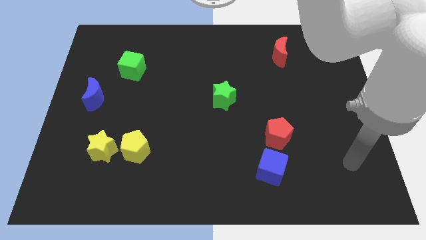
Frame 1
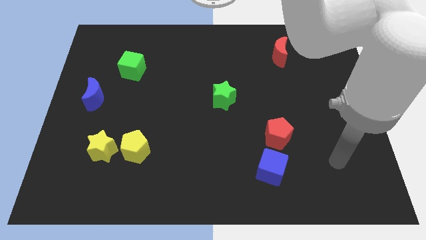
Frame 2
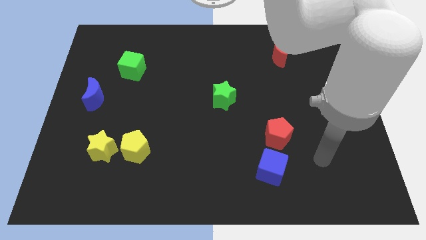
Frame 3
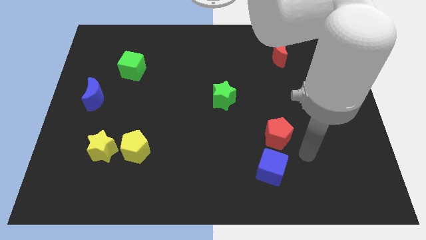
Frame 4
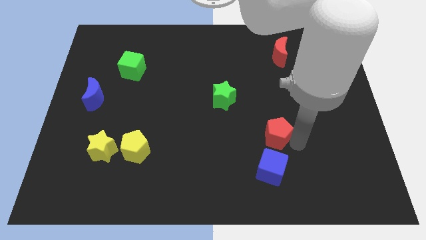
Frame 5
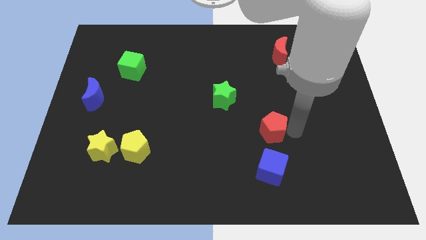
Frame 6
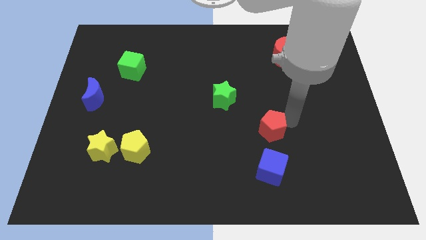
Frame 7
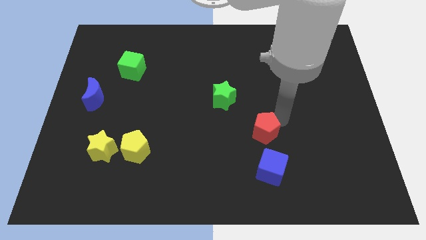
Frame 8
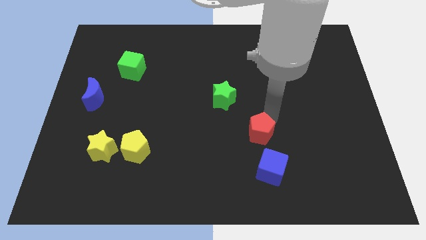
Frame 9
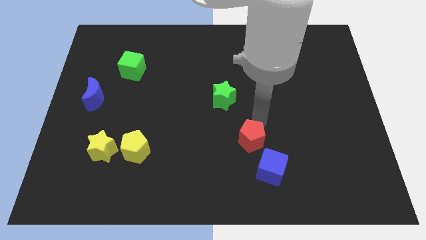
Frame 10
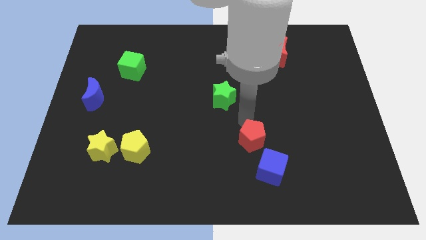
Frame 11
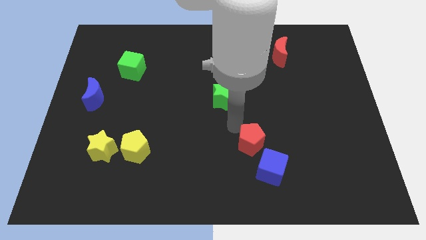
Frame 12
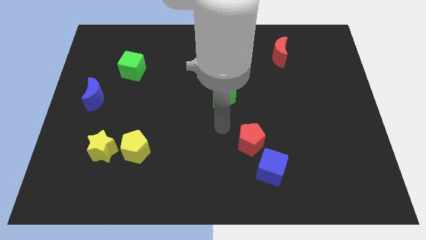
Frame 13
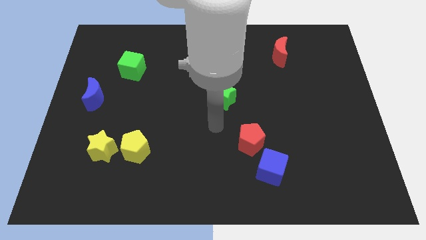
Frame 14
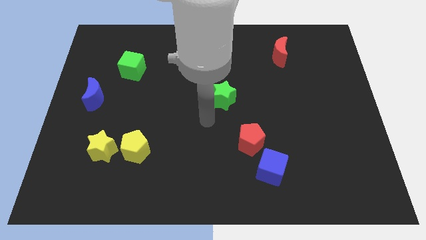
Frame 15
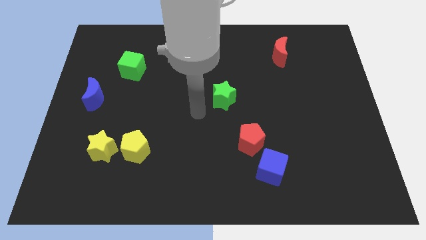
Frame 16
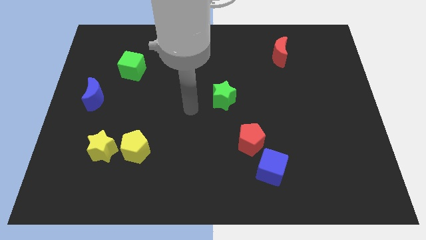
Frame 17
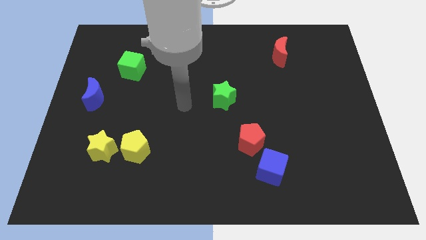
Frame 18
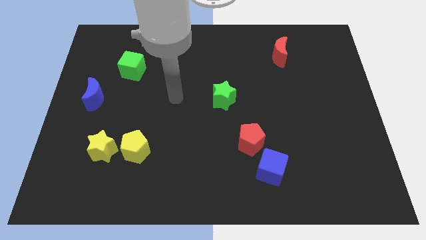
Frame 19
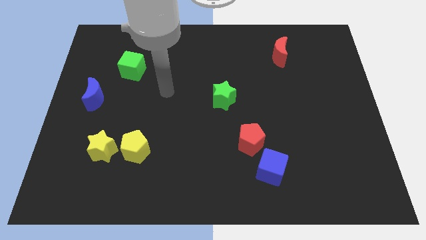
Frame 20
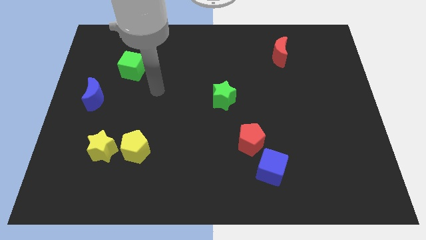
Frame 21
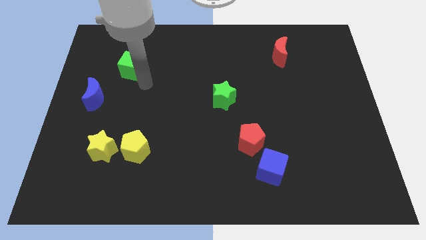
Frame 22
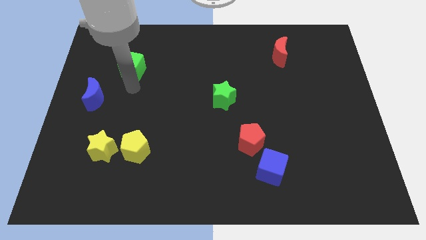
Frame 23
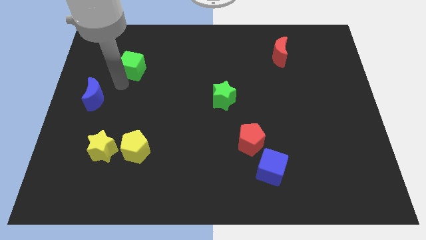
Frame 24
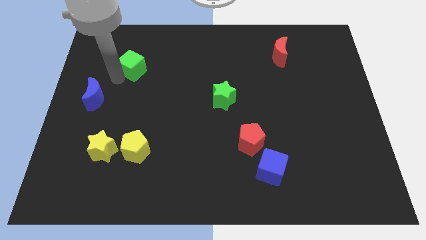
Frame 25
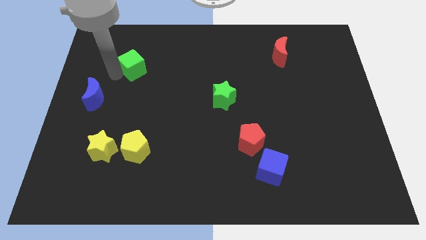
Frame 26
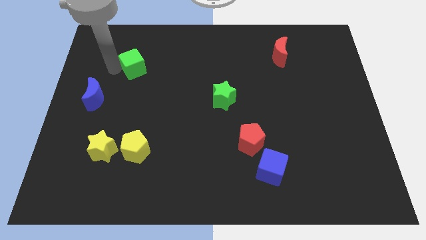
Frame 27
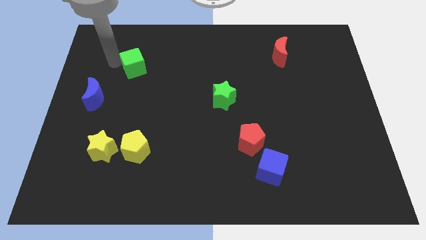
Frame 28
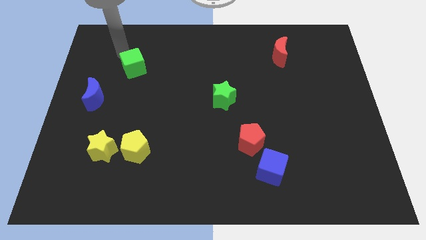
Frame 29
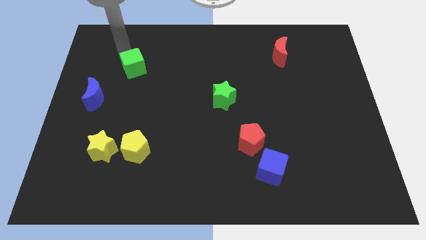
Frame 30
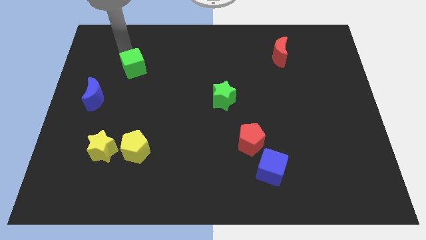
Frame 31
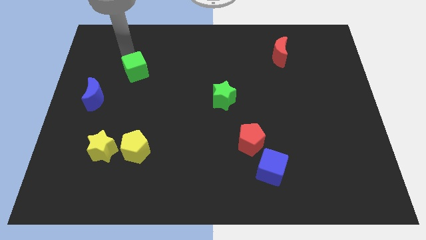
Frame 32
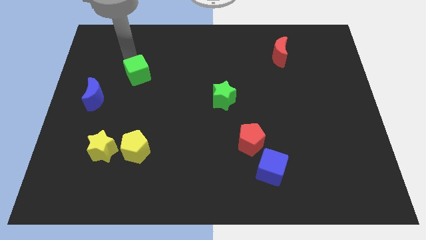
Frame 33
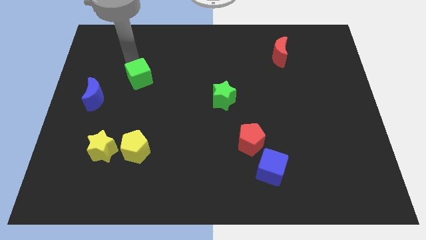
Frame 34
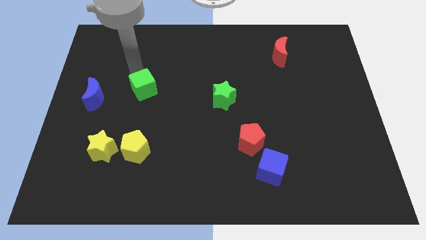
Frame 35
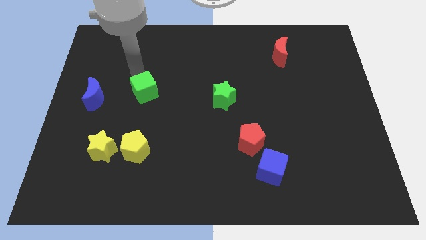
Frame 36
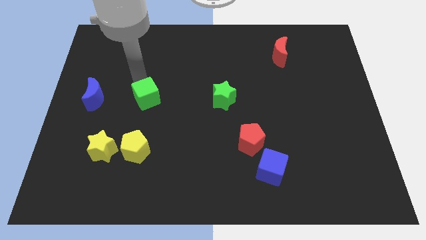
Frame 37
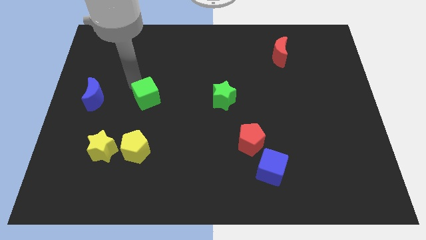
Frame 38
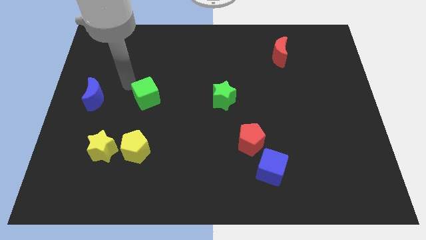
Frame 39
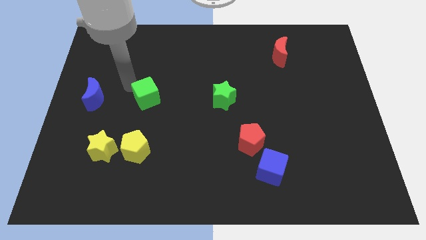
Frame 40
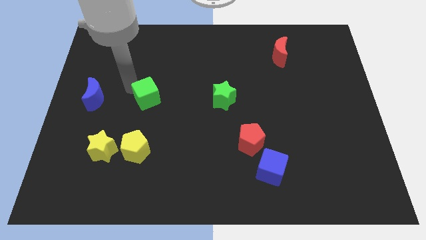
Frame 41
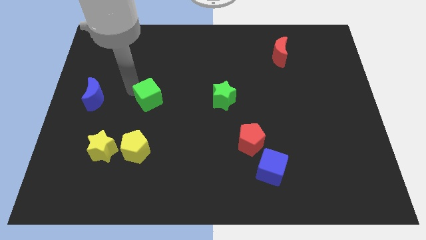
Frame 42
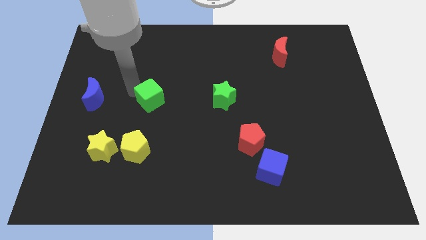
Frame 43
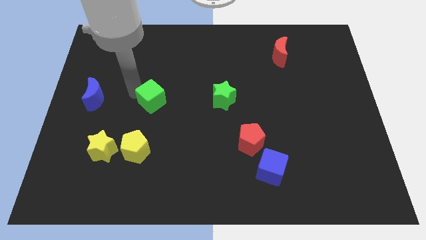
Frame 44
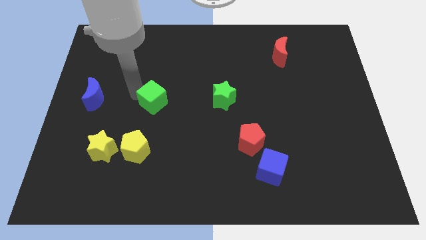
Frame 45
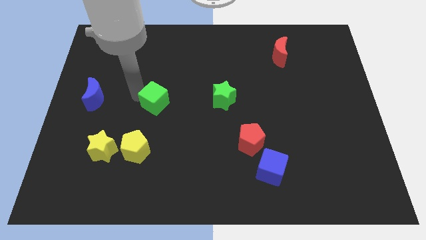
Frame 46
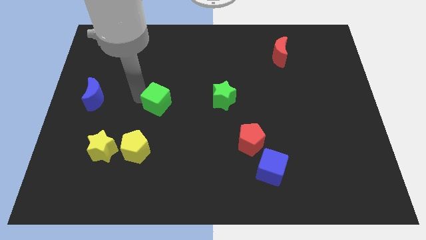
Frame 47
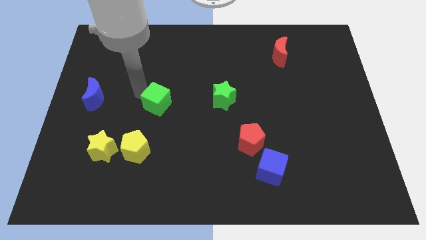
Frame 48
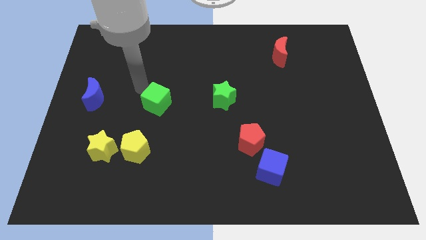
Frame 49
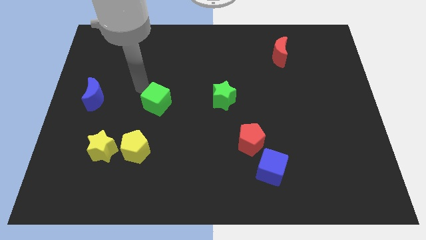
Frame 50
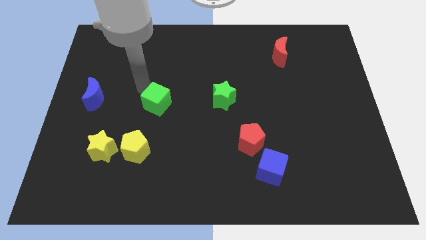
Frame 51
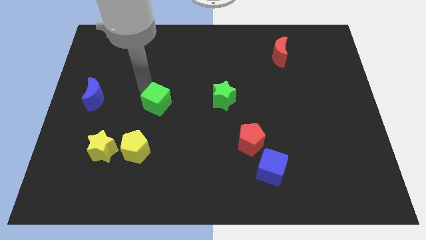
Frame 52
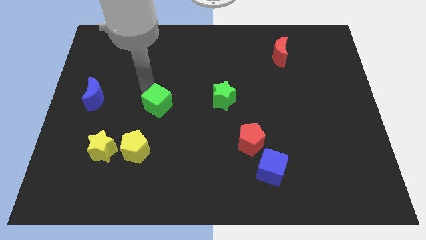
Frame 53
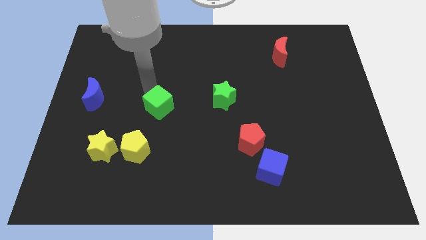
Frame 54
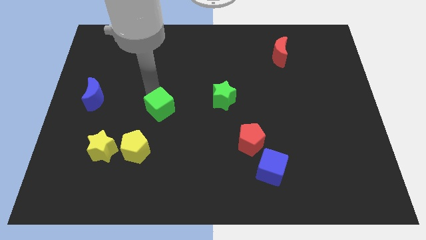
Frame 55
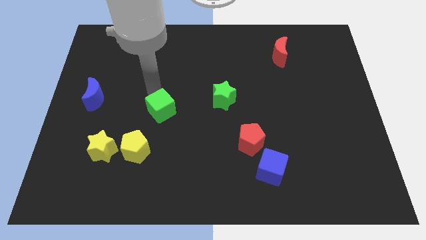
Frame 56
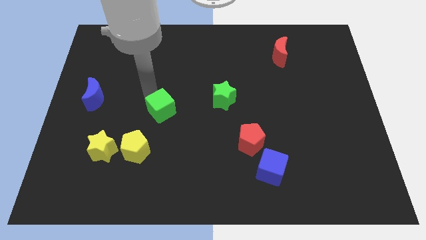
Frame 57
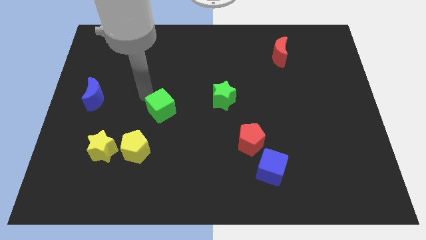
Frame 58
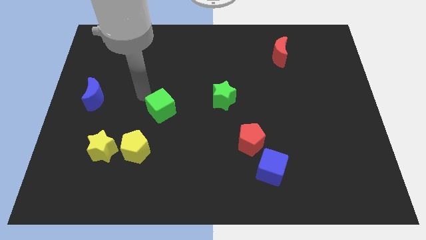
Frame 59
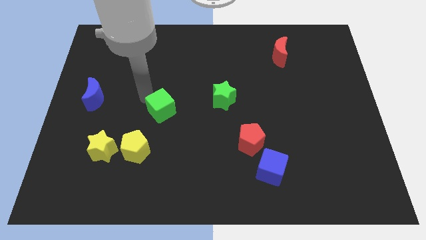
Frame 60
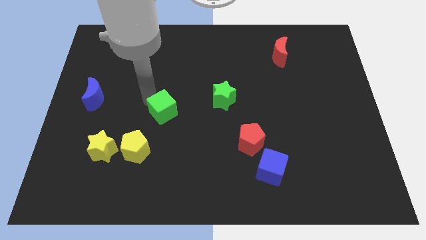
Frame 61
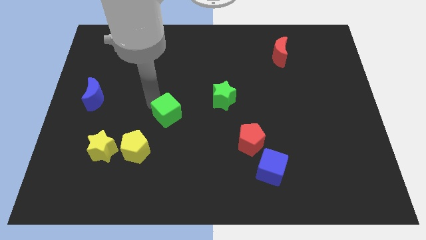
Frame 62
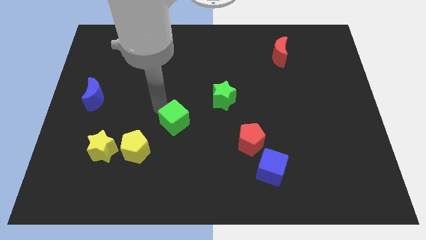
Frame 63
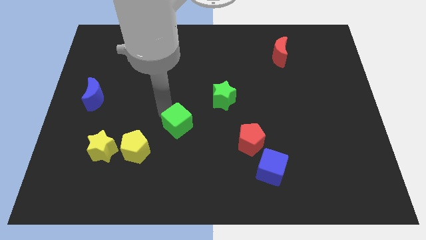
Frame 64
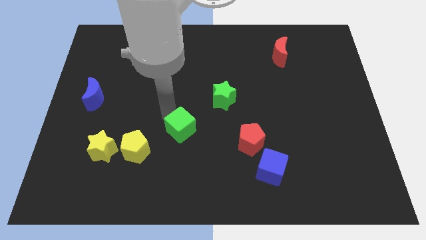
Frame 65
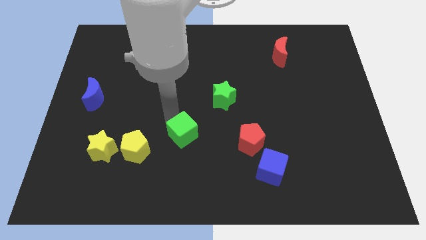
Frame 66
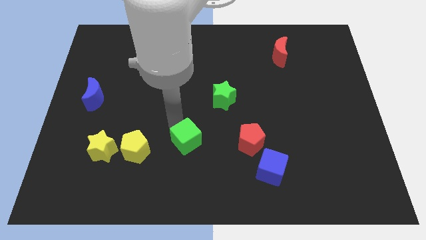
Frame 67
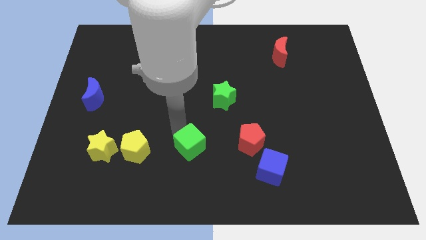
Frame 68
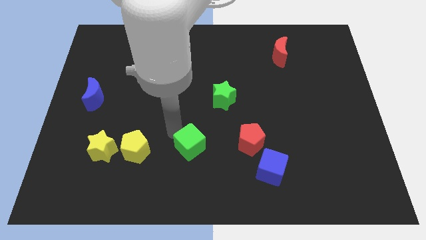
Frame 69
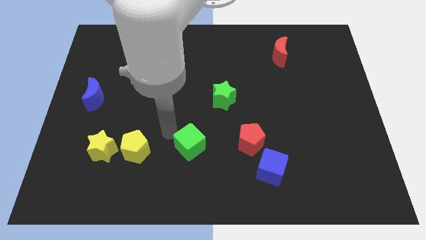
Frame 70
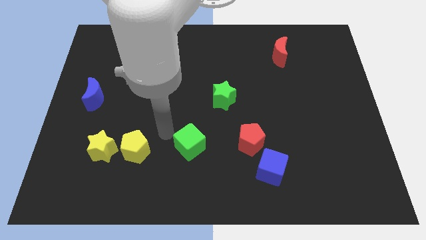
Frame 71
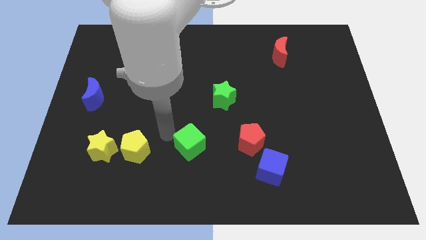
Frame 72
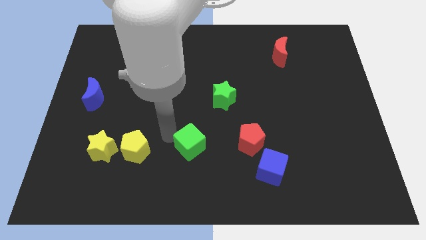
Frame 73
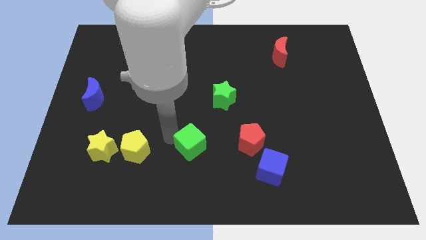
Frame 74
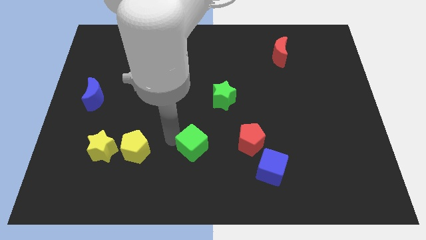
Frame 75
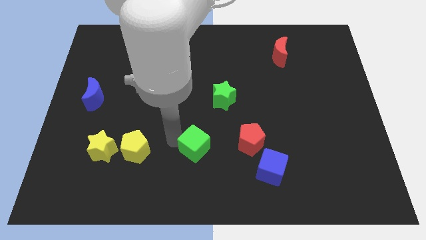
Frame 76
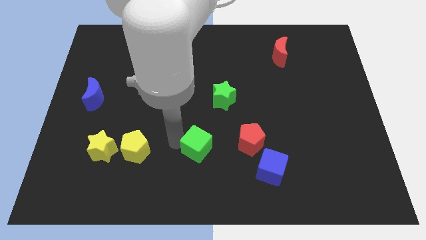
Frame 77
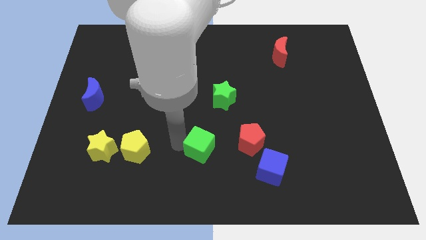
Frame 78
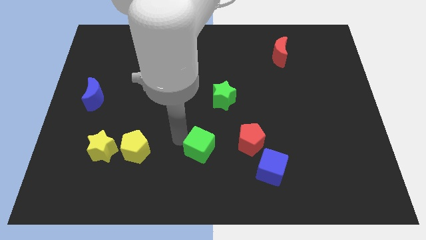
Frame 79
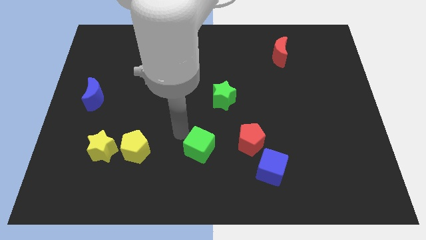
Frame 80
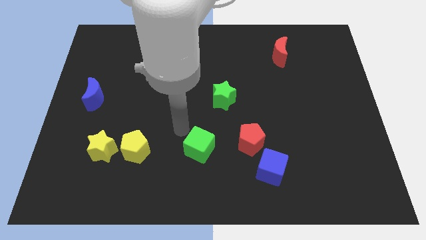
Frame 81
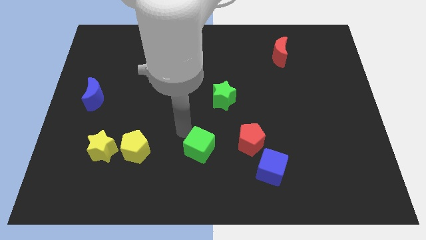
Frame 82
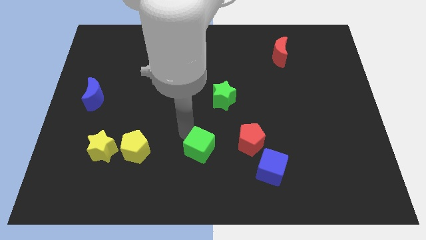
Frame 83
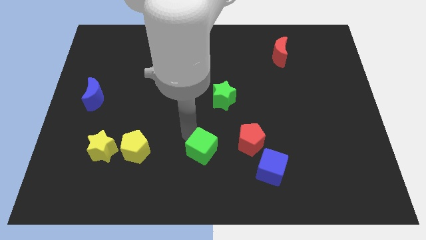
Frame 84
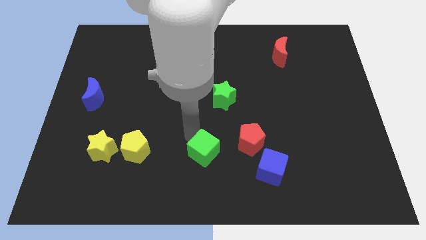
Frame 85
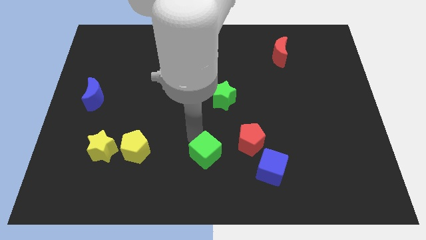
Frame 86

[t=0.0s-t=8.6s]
move the green cube just left of the blue cube
